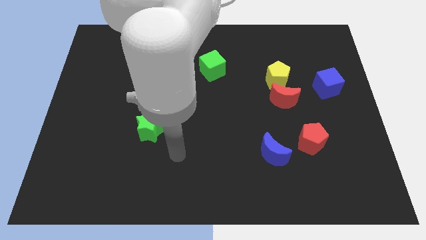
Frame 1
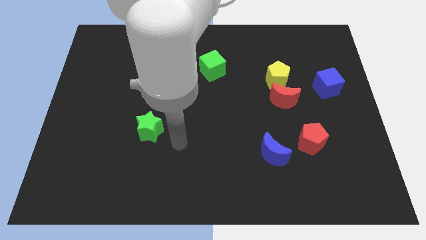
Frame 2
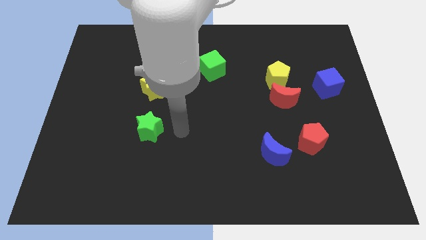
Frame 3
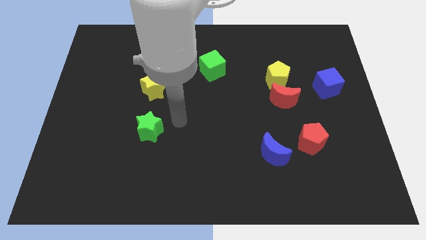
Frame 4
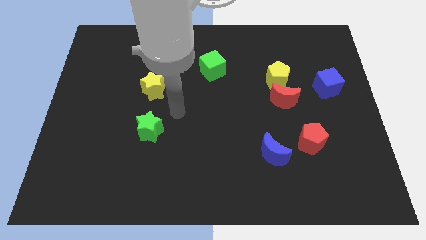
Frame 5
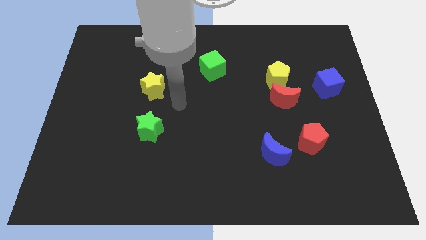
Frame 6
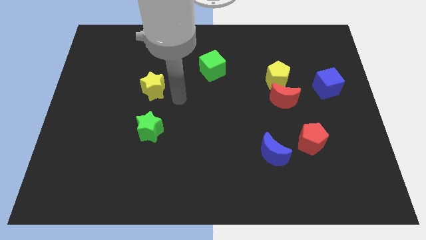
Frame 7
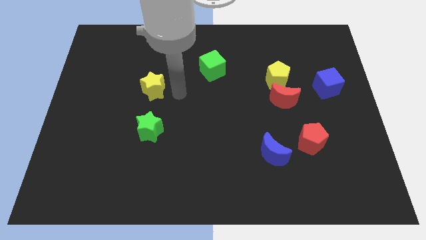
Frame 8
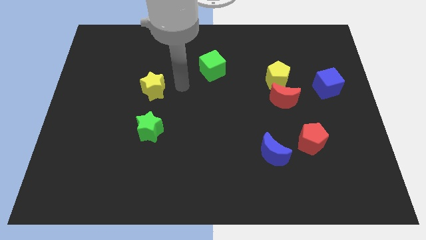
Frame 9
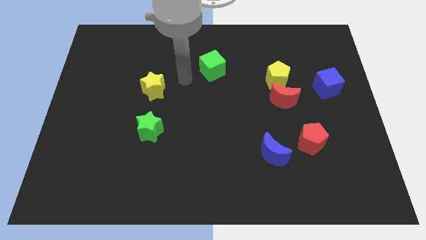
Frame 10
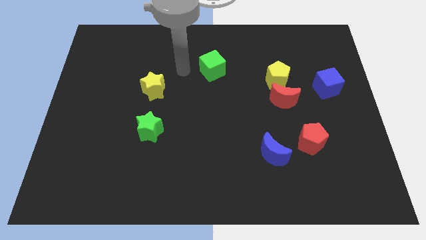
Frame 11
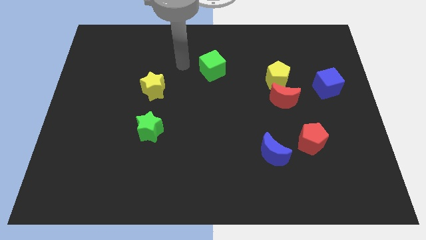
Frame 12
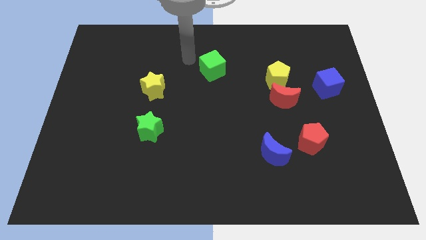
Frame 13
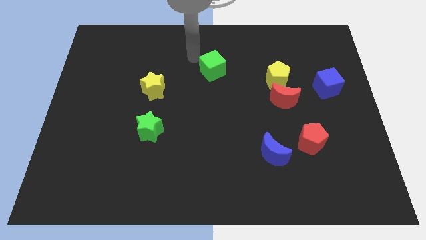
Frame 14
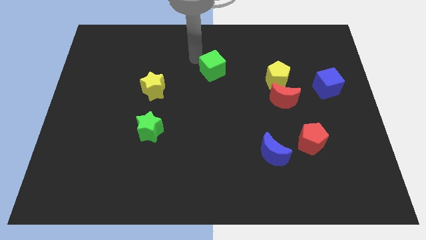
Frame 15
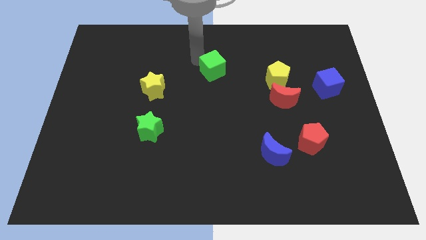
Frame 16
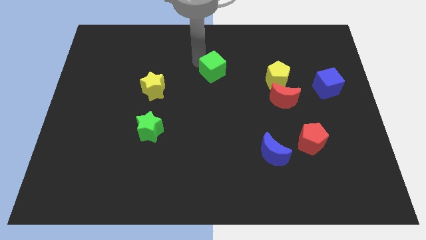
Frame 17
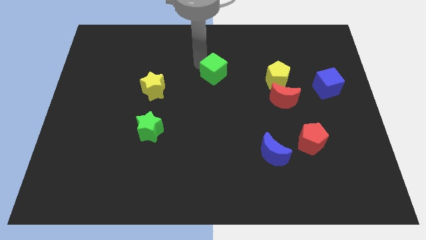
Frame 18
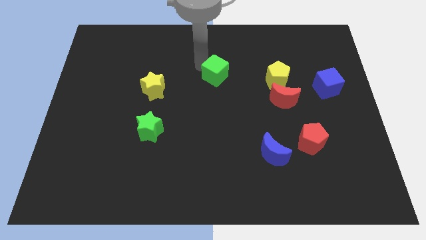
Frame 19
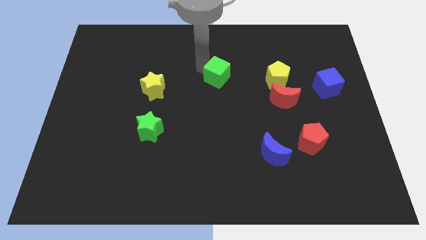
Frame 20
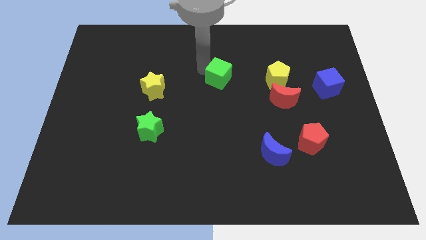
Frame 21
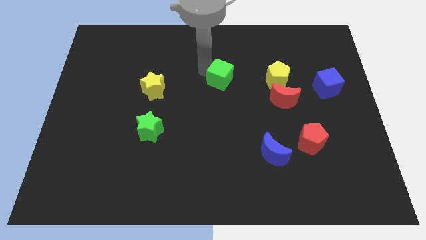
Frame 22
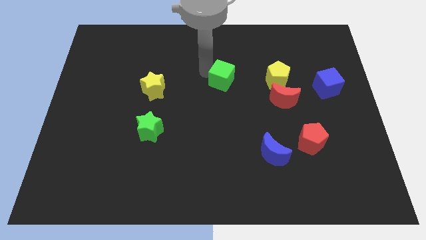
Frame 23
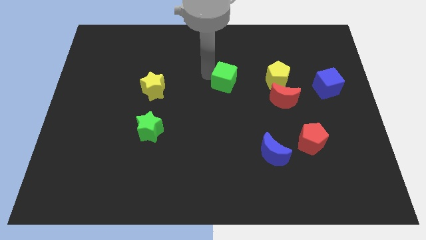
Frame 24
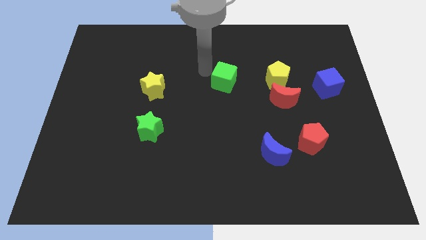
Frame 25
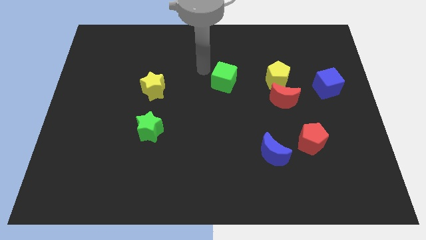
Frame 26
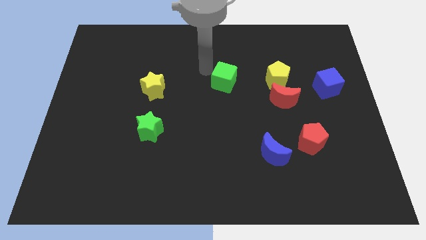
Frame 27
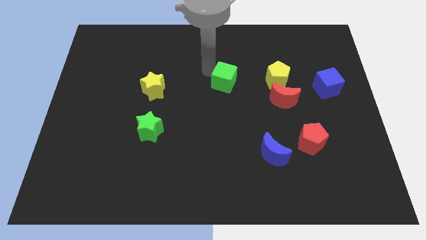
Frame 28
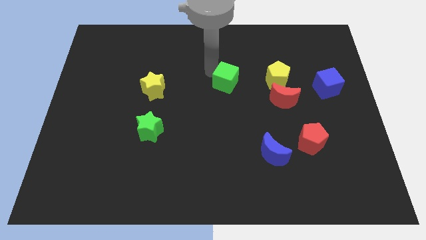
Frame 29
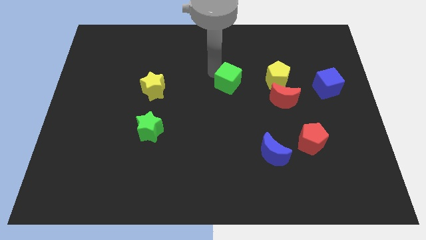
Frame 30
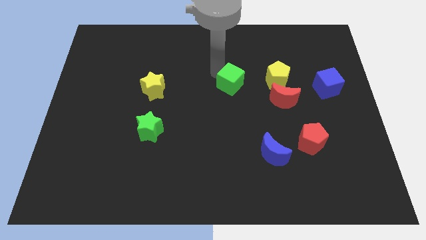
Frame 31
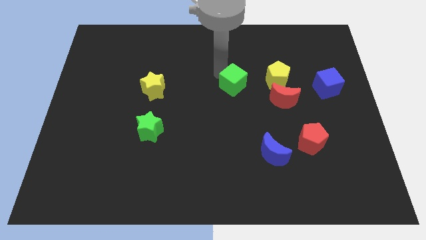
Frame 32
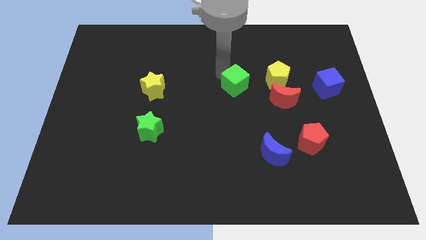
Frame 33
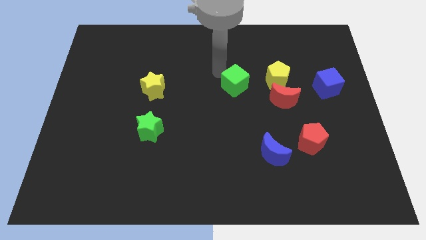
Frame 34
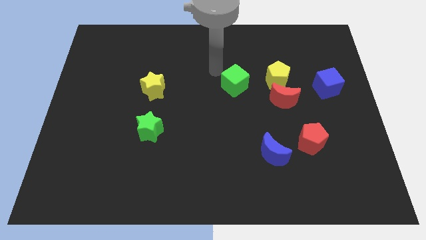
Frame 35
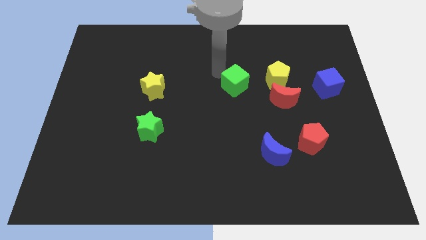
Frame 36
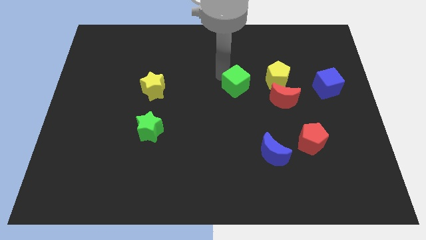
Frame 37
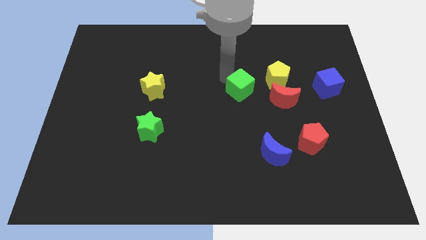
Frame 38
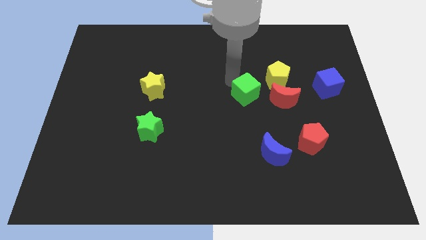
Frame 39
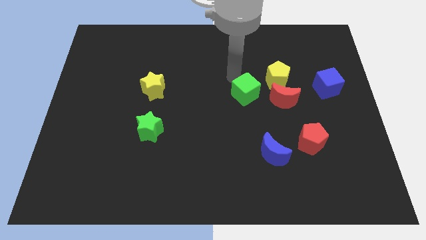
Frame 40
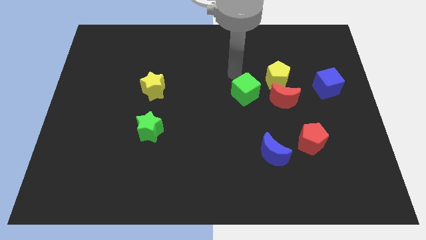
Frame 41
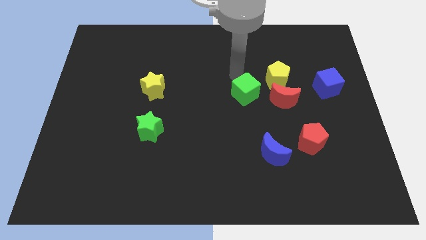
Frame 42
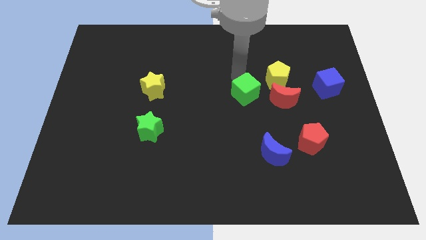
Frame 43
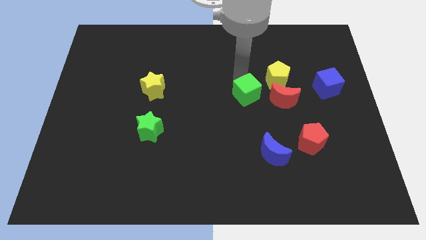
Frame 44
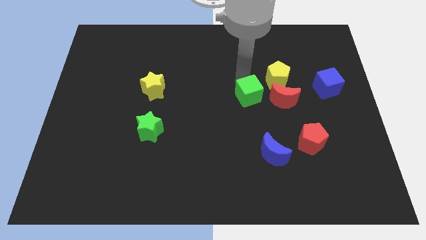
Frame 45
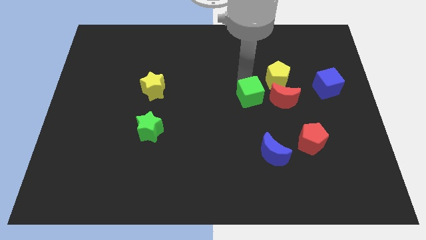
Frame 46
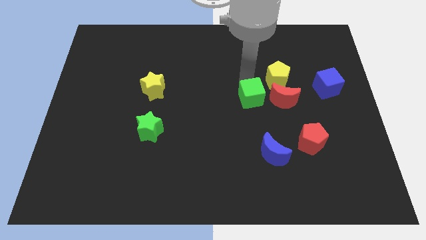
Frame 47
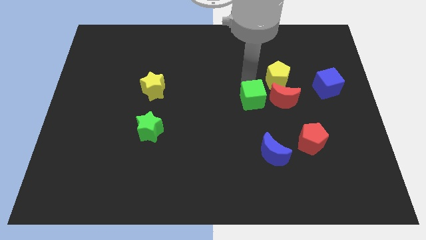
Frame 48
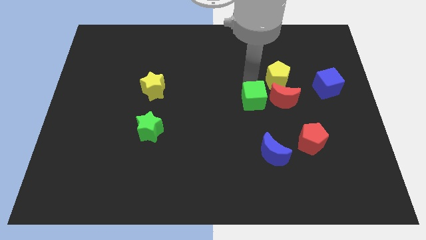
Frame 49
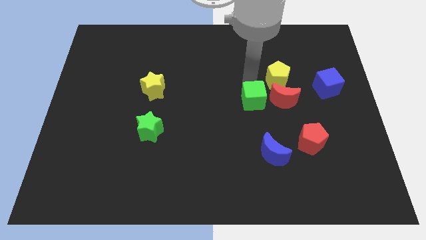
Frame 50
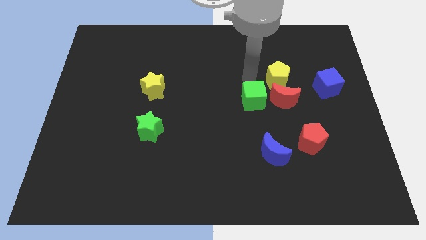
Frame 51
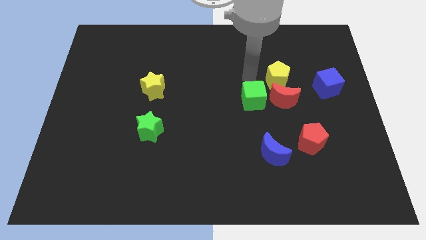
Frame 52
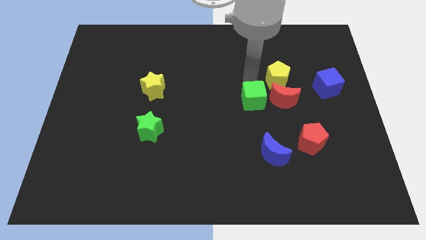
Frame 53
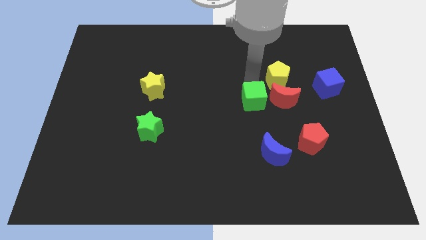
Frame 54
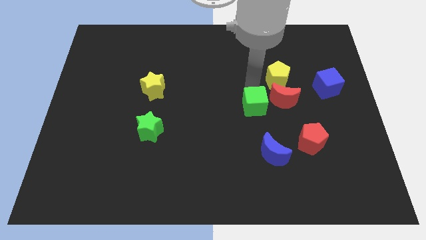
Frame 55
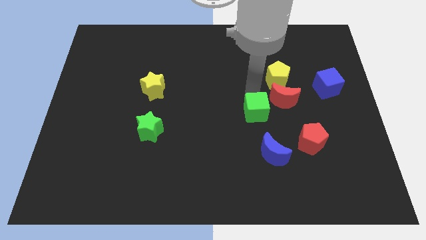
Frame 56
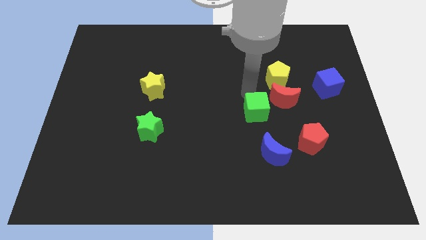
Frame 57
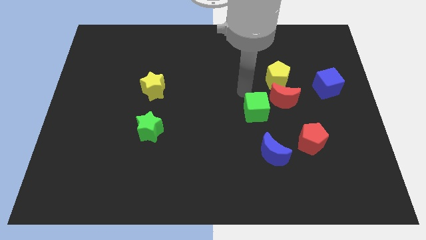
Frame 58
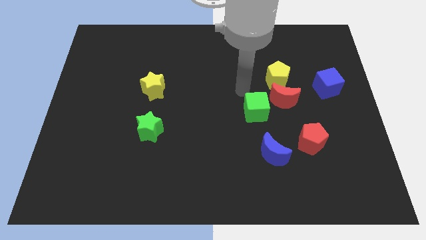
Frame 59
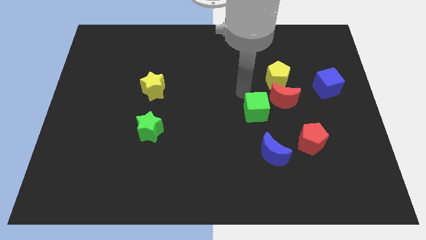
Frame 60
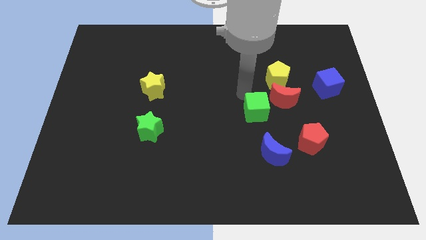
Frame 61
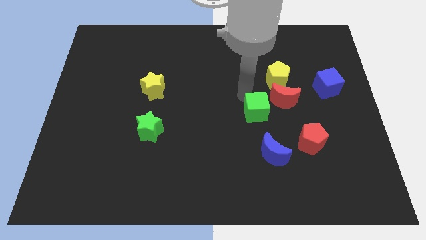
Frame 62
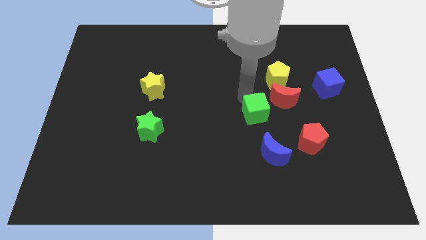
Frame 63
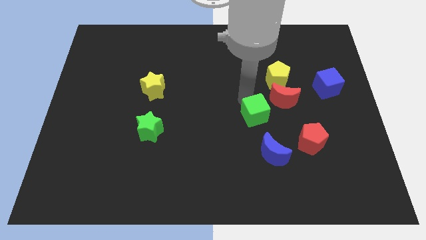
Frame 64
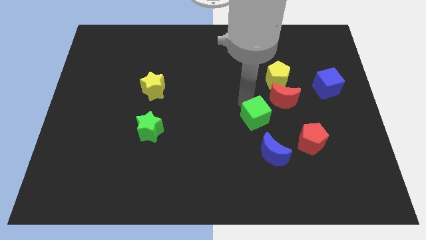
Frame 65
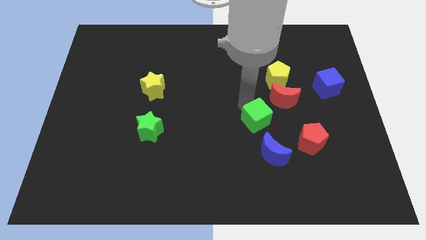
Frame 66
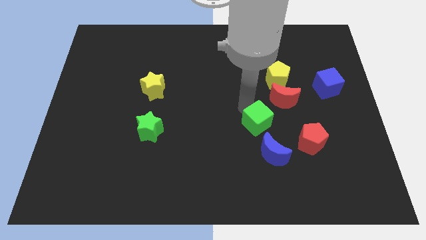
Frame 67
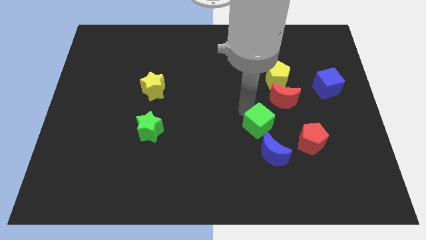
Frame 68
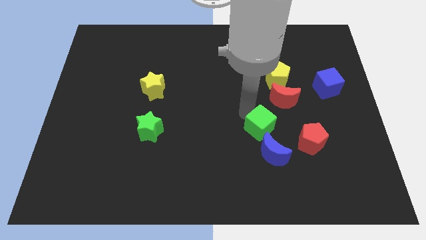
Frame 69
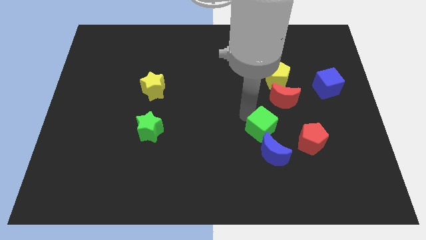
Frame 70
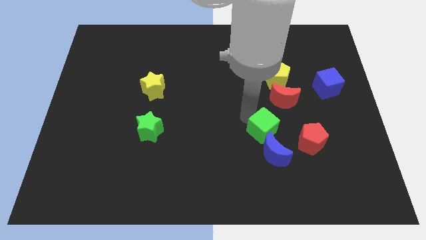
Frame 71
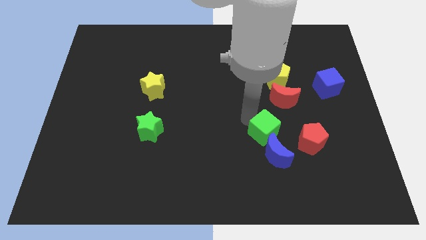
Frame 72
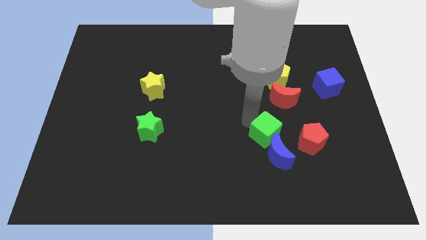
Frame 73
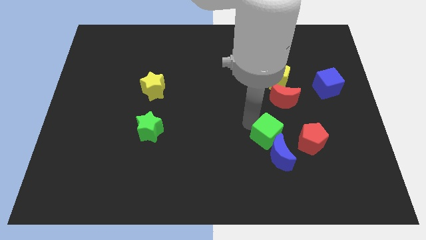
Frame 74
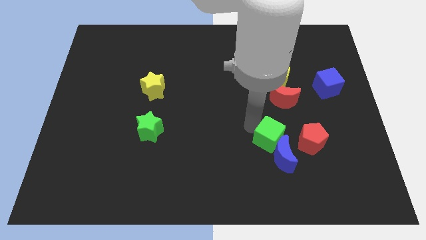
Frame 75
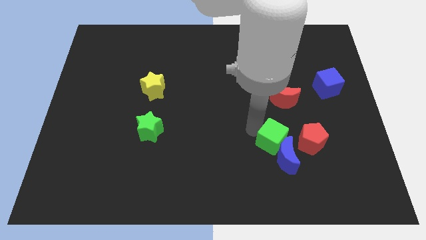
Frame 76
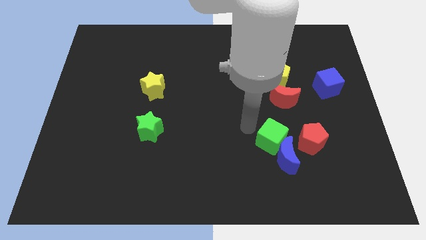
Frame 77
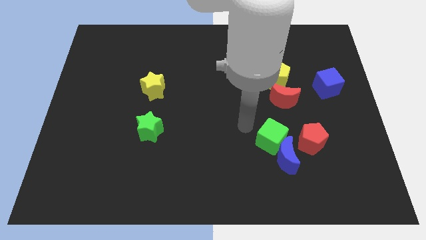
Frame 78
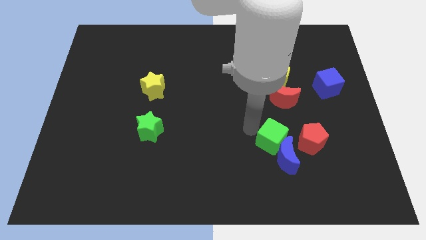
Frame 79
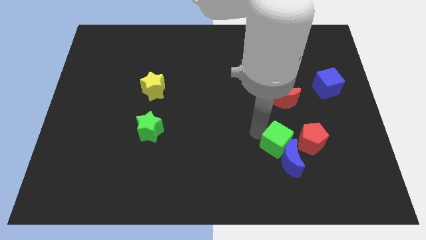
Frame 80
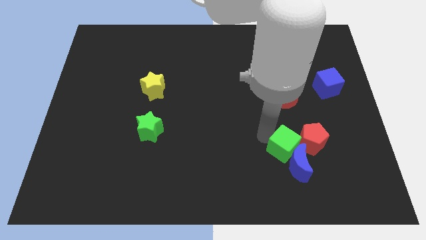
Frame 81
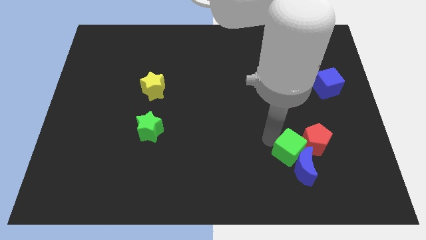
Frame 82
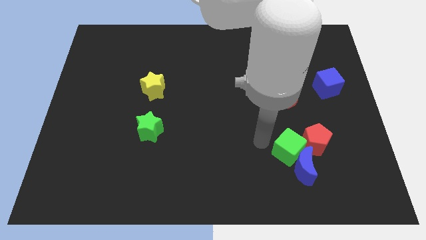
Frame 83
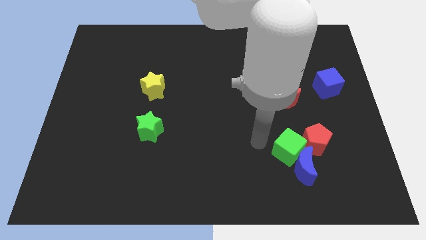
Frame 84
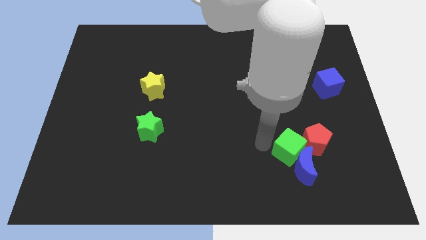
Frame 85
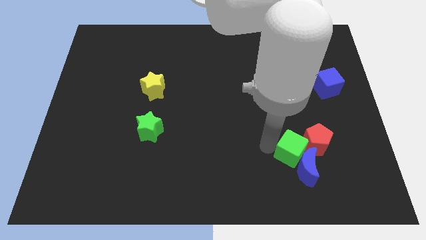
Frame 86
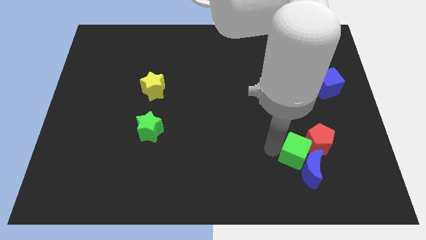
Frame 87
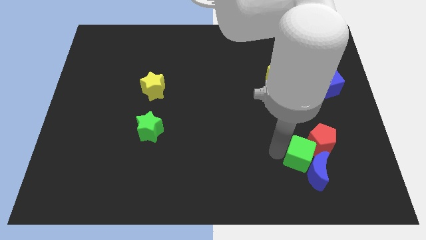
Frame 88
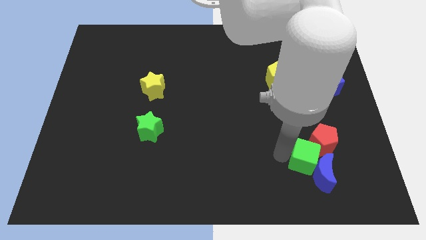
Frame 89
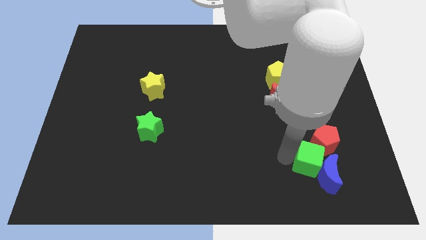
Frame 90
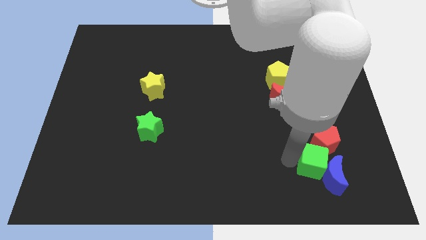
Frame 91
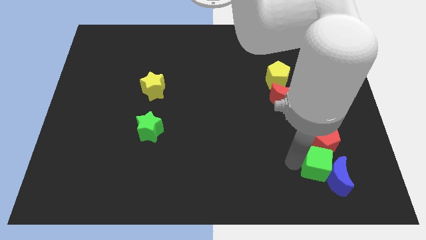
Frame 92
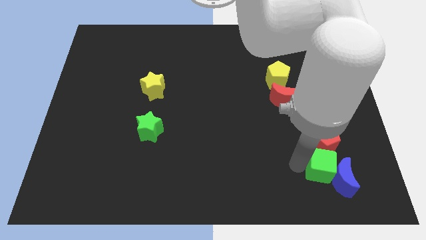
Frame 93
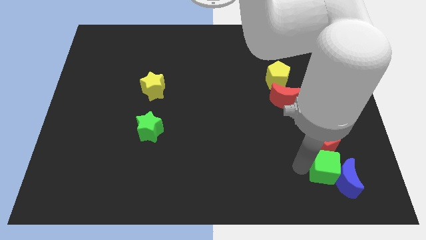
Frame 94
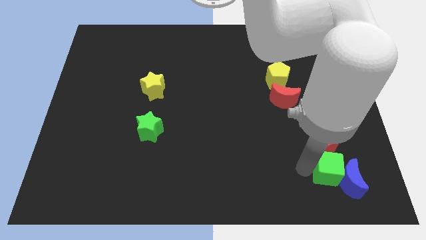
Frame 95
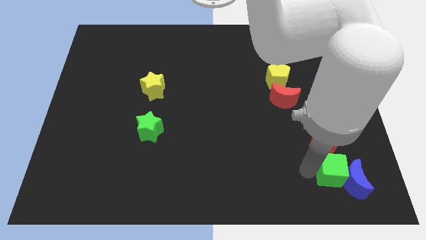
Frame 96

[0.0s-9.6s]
move the green cube to the bottom right of the red pentagon
